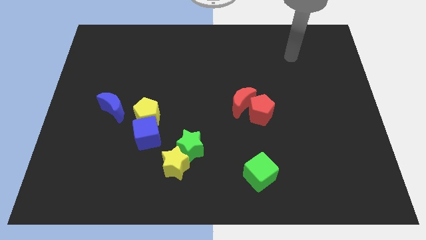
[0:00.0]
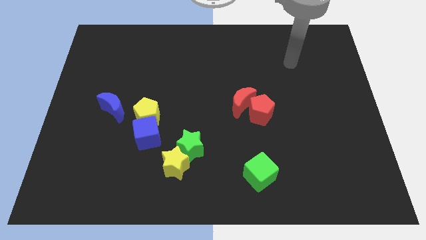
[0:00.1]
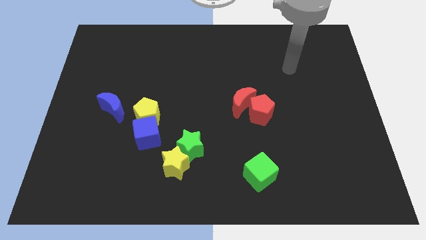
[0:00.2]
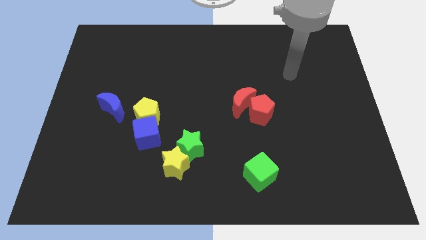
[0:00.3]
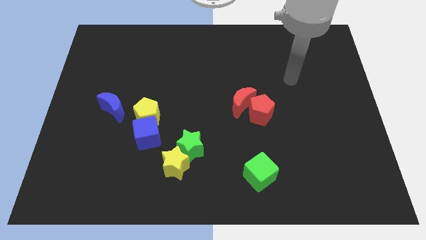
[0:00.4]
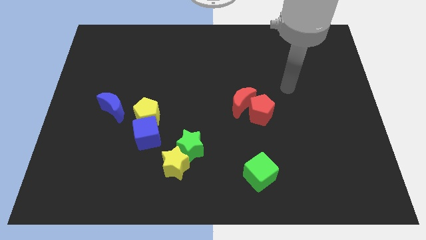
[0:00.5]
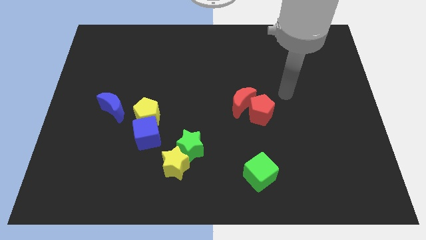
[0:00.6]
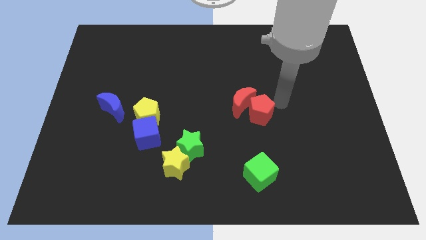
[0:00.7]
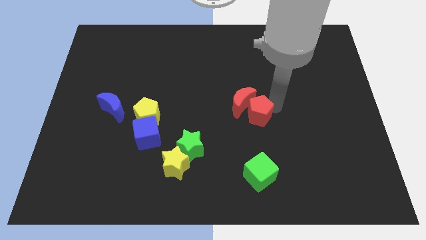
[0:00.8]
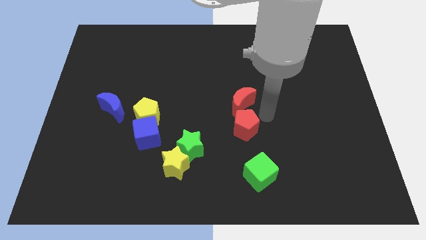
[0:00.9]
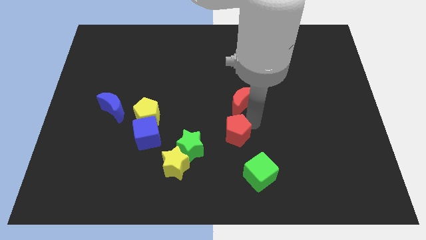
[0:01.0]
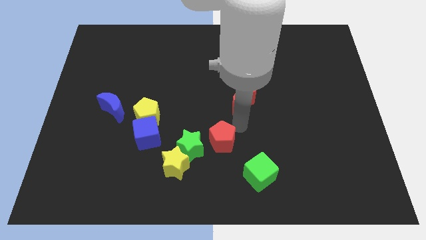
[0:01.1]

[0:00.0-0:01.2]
move the red moon away from the red pentagon

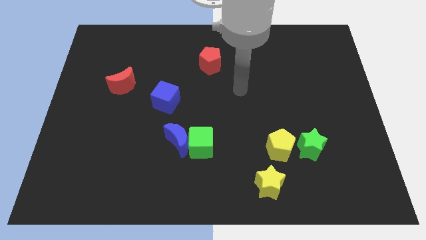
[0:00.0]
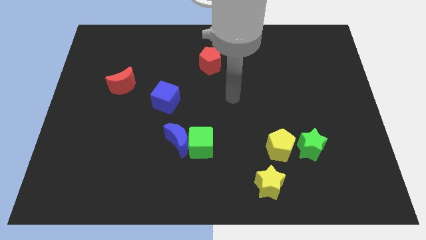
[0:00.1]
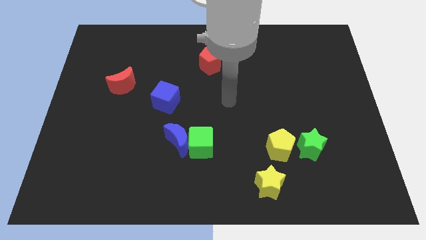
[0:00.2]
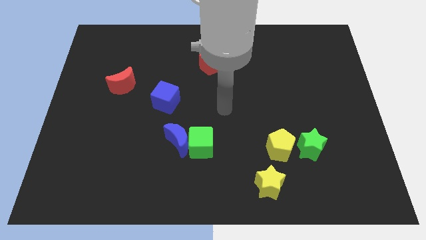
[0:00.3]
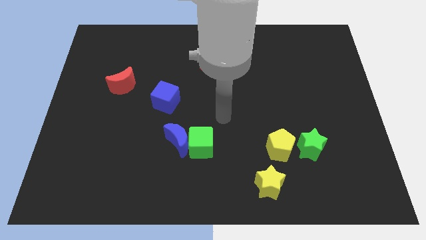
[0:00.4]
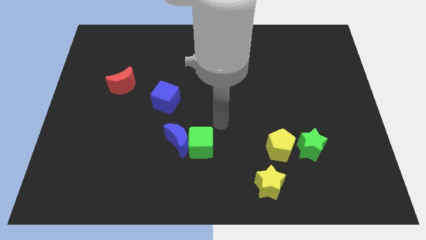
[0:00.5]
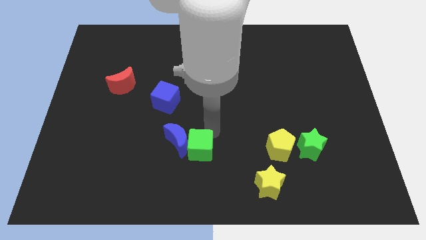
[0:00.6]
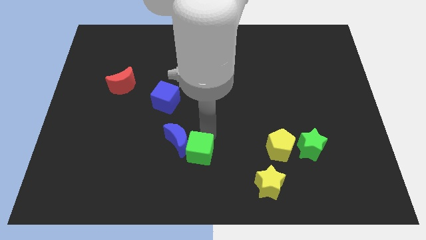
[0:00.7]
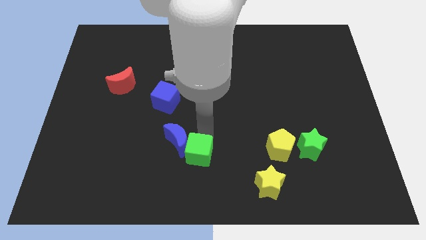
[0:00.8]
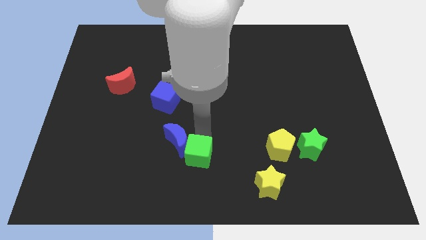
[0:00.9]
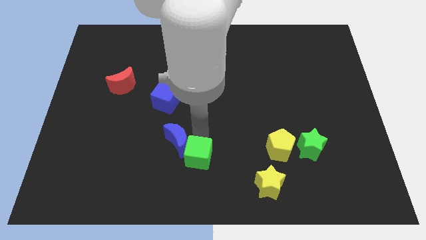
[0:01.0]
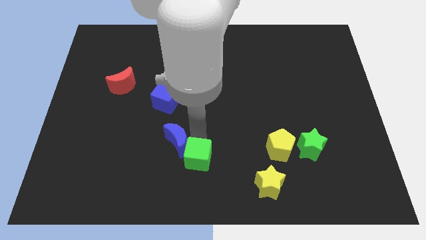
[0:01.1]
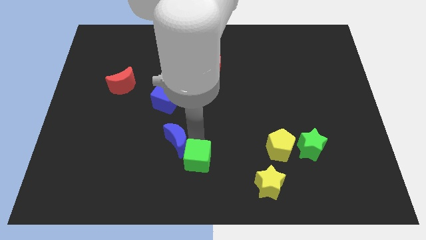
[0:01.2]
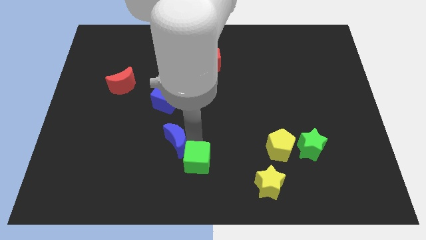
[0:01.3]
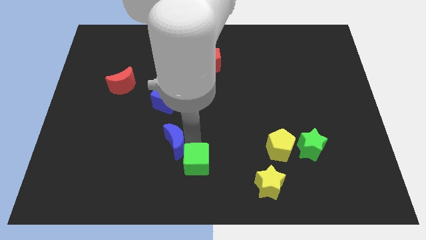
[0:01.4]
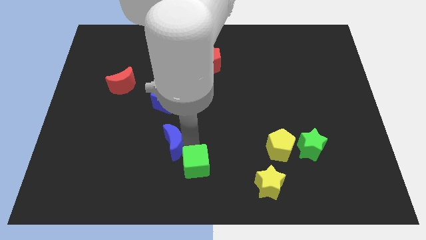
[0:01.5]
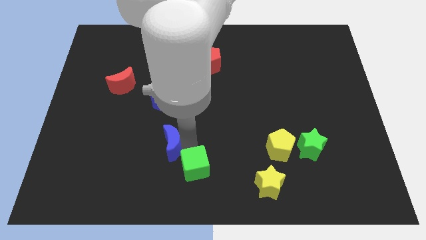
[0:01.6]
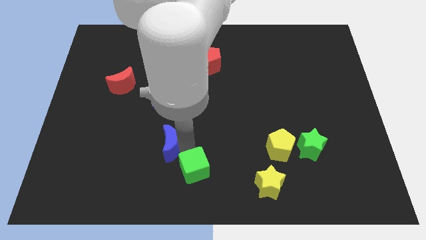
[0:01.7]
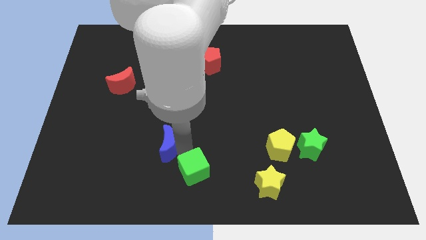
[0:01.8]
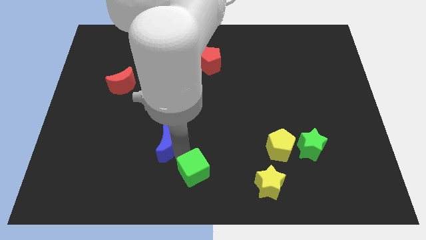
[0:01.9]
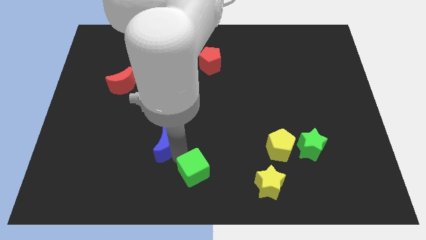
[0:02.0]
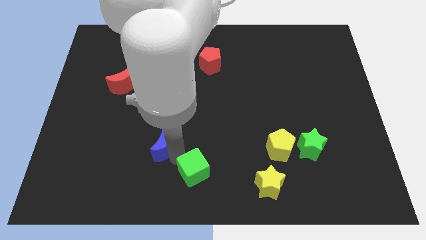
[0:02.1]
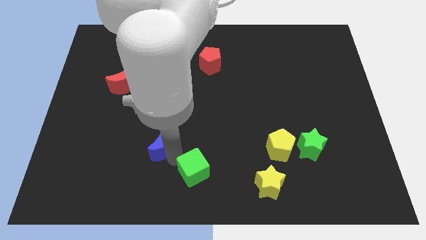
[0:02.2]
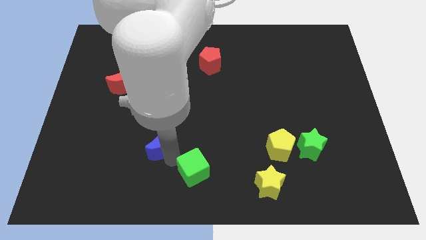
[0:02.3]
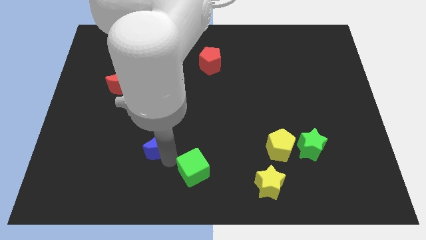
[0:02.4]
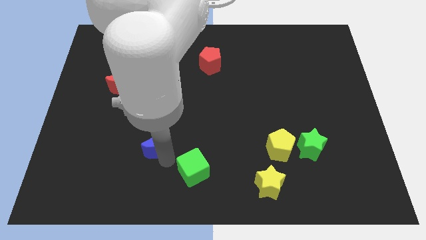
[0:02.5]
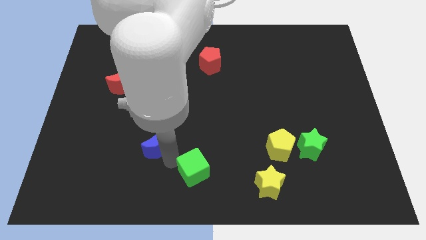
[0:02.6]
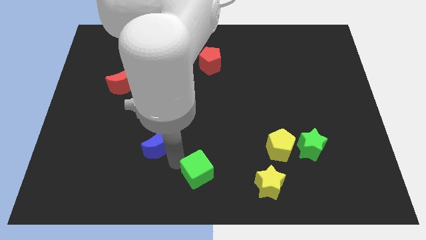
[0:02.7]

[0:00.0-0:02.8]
pull the blue moon apart from the green cube

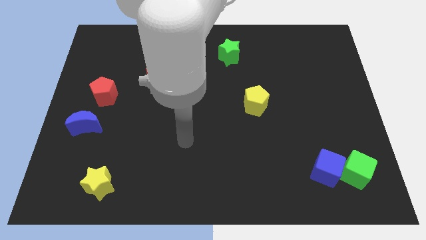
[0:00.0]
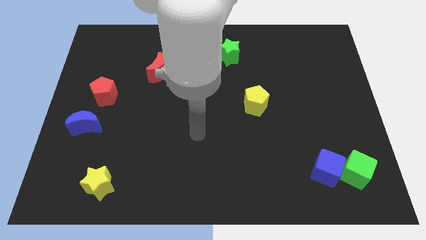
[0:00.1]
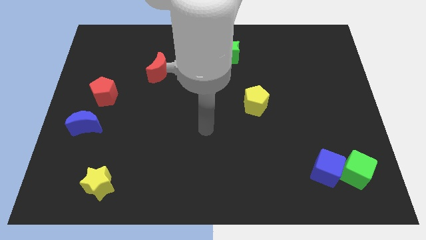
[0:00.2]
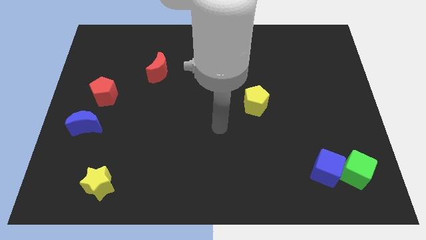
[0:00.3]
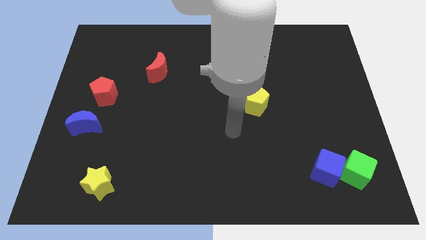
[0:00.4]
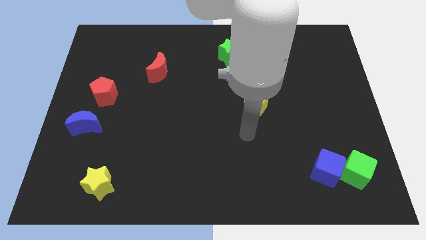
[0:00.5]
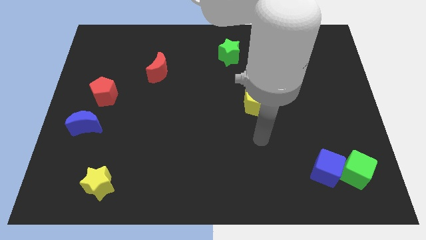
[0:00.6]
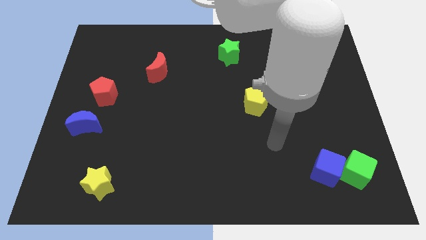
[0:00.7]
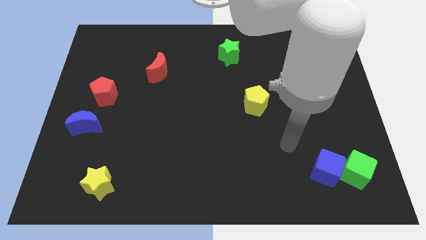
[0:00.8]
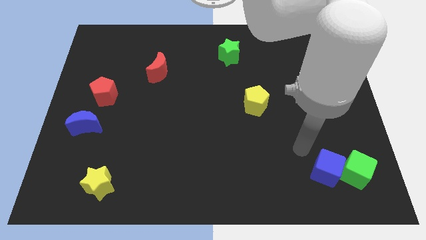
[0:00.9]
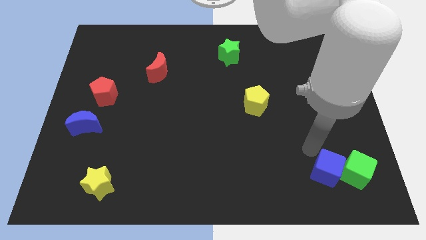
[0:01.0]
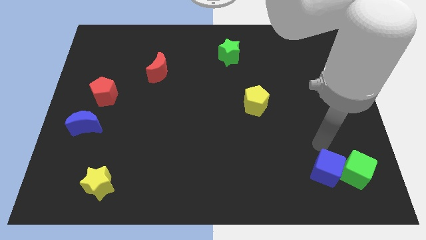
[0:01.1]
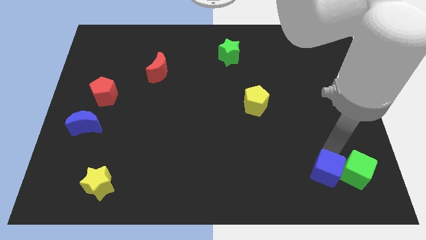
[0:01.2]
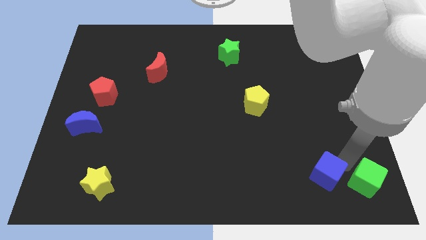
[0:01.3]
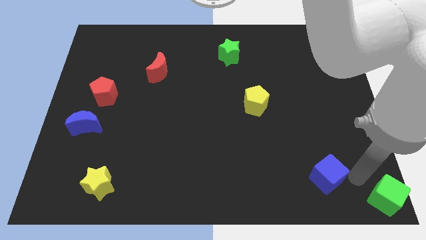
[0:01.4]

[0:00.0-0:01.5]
separate the blue cube from the green cube

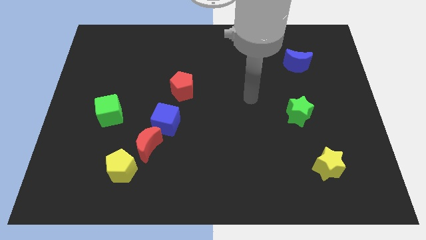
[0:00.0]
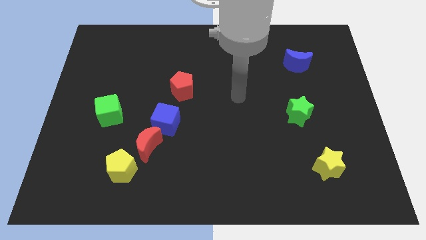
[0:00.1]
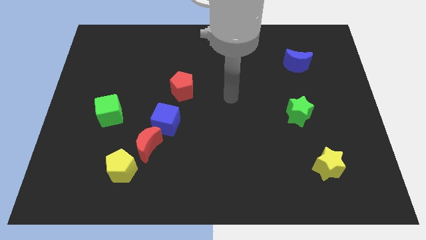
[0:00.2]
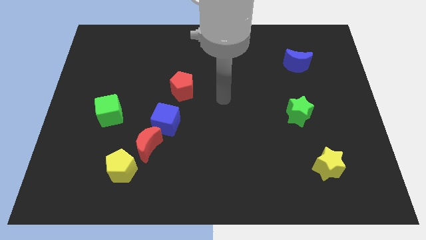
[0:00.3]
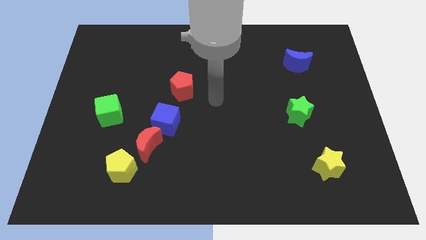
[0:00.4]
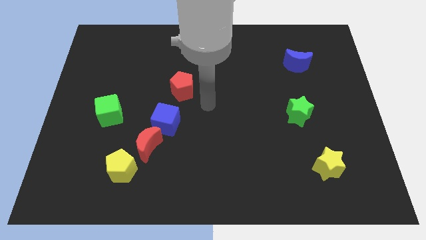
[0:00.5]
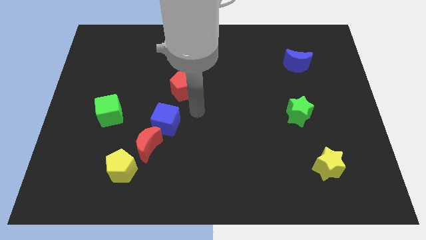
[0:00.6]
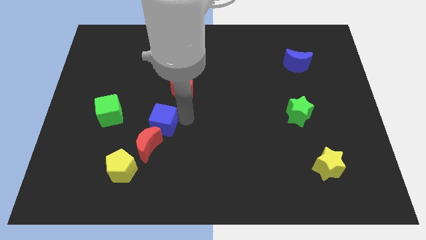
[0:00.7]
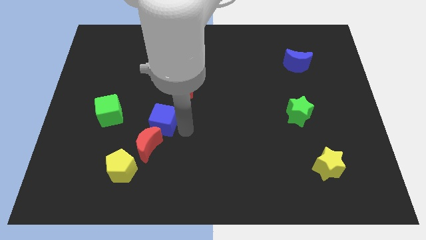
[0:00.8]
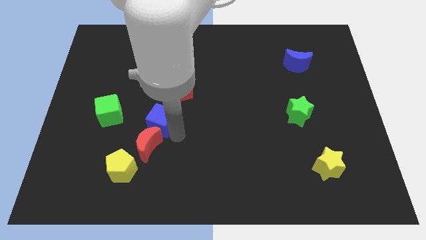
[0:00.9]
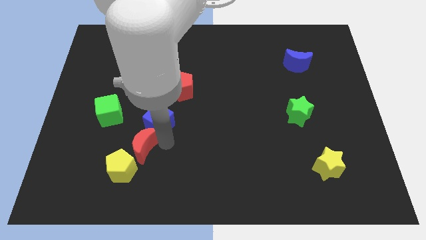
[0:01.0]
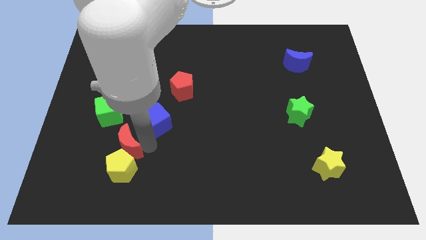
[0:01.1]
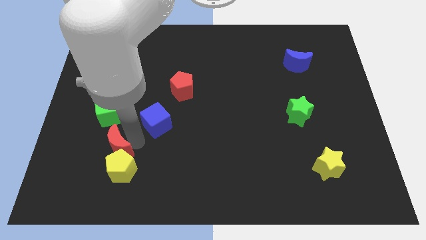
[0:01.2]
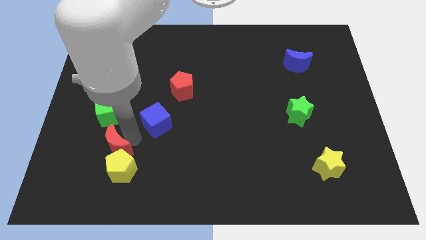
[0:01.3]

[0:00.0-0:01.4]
separate the blue cube from the red moon

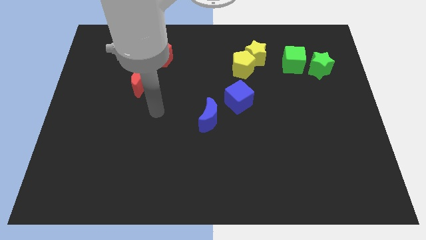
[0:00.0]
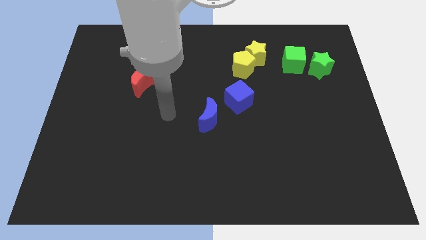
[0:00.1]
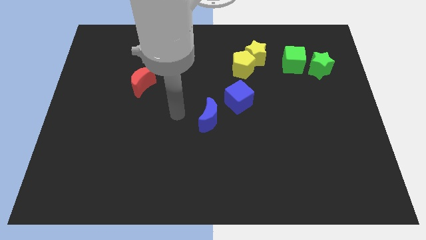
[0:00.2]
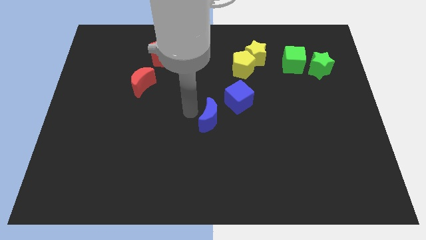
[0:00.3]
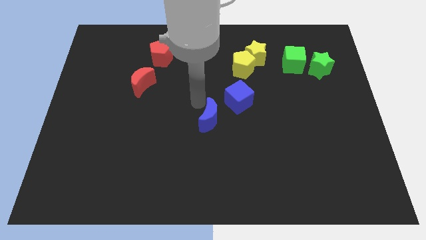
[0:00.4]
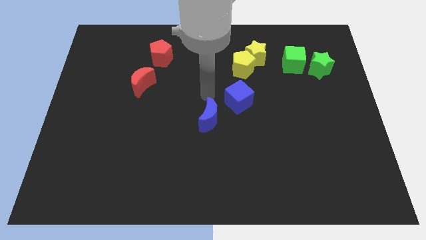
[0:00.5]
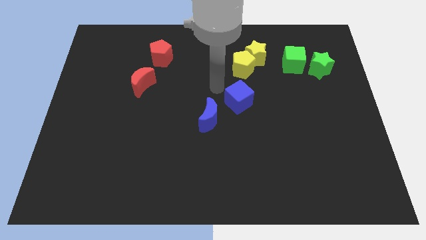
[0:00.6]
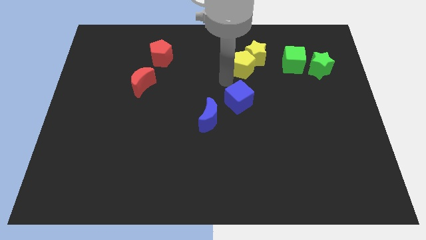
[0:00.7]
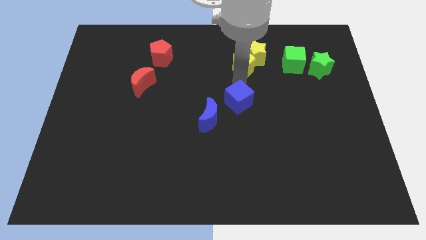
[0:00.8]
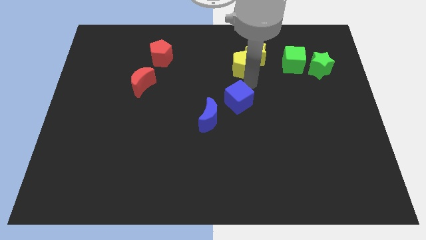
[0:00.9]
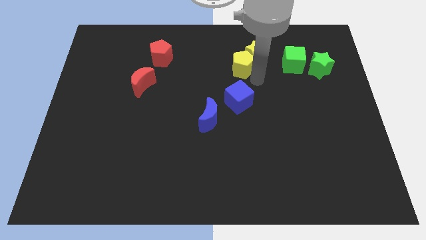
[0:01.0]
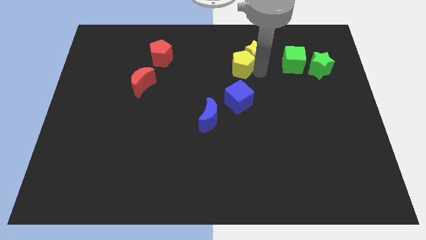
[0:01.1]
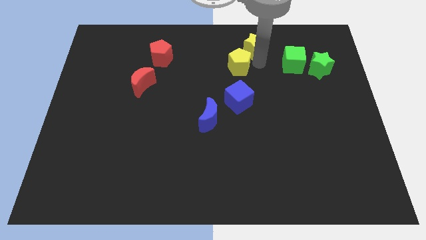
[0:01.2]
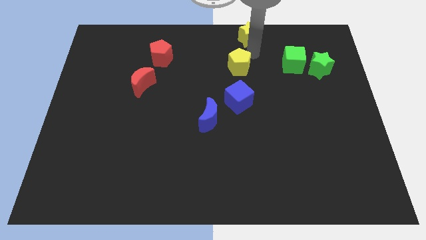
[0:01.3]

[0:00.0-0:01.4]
pull the yellow pentagon apart from the yellow star

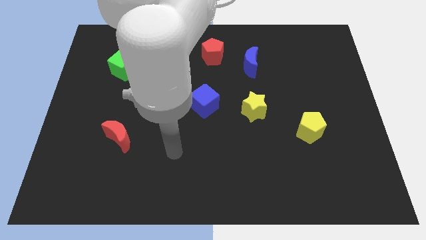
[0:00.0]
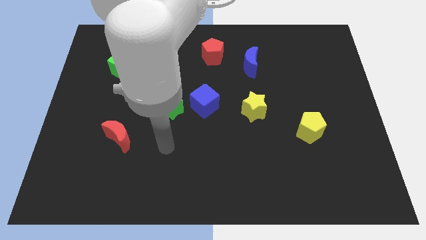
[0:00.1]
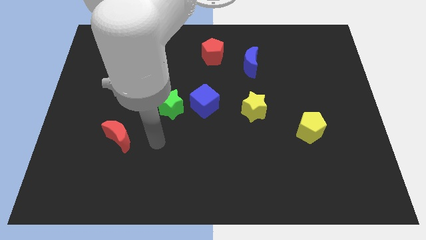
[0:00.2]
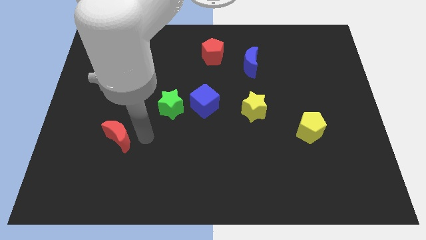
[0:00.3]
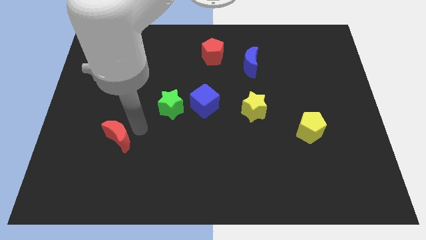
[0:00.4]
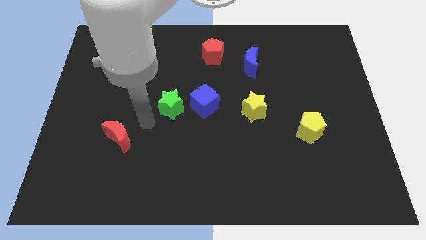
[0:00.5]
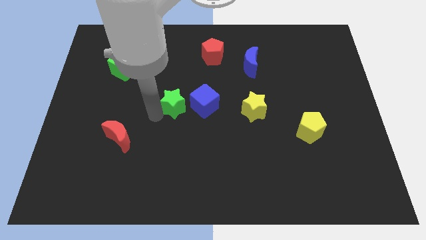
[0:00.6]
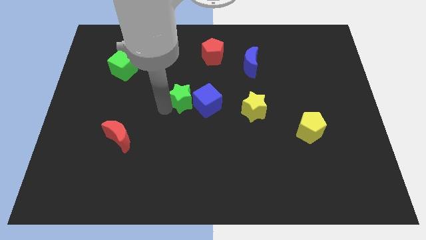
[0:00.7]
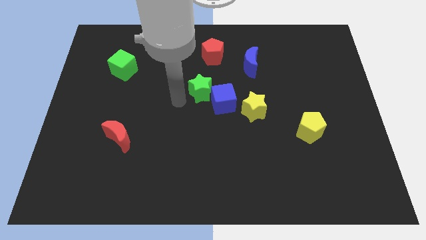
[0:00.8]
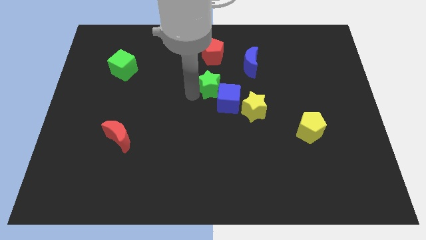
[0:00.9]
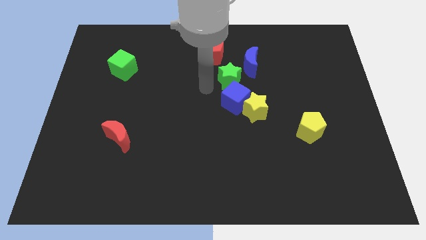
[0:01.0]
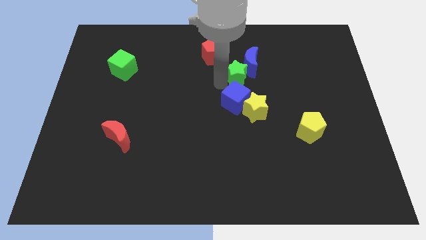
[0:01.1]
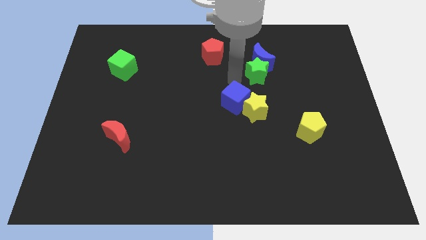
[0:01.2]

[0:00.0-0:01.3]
move the blue cube away from the green star
